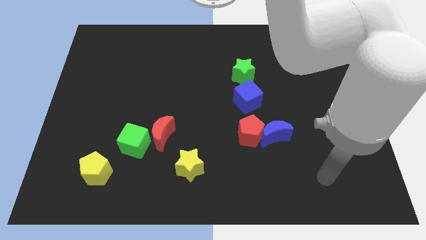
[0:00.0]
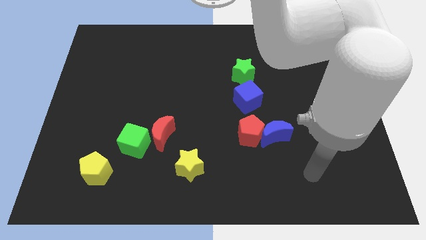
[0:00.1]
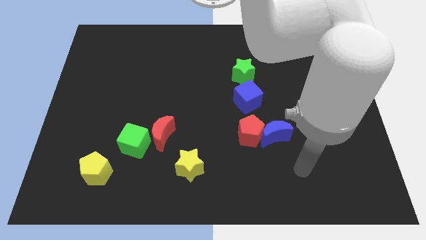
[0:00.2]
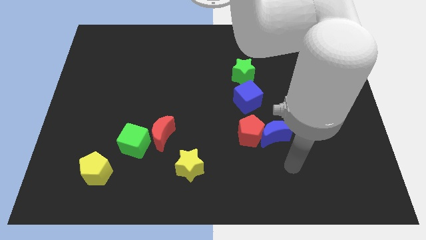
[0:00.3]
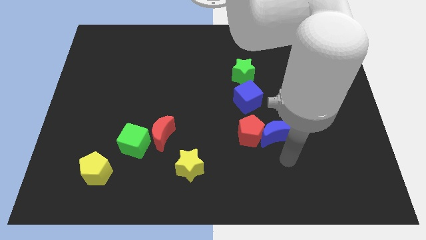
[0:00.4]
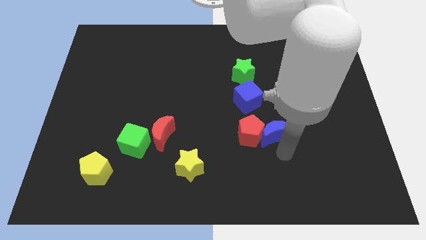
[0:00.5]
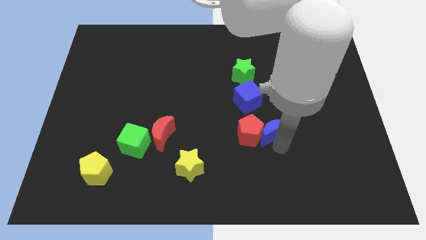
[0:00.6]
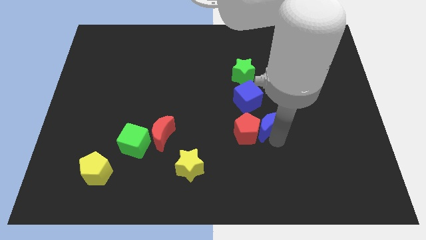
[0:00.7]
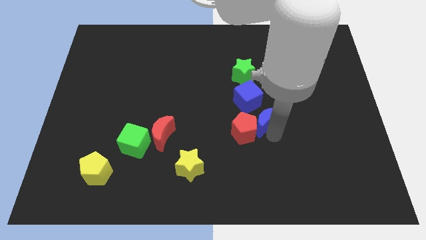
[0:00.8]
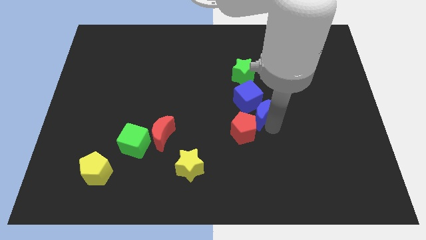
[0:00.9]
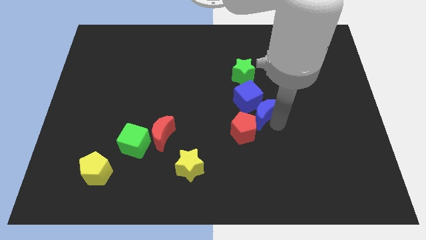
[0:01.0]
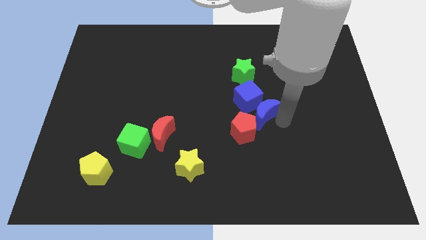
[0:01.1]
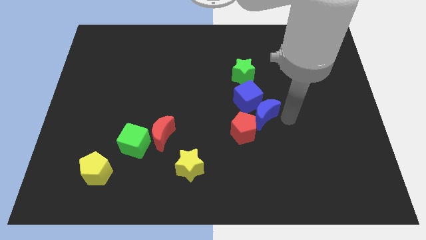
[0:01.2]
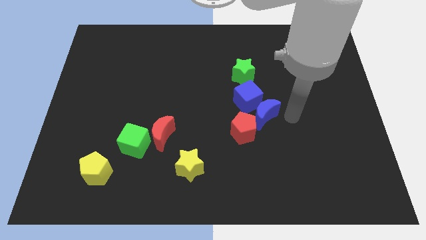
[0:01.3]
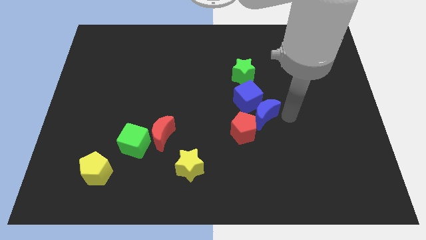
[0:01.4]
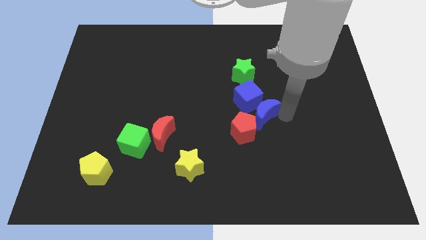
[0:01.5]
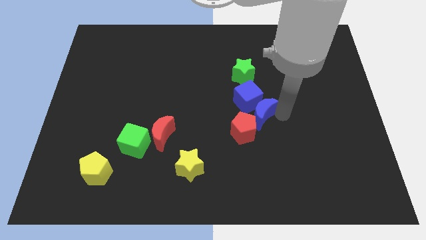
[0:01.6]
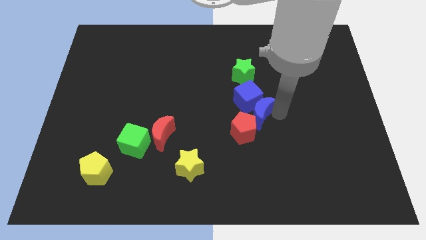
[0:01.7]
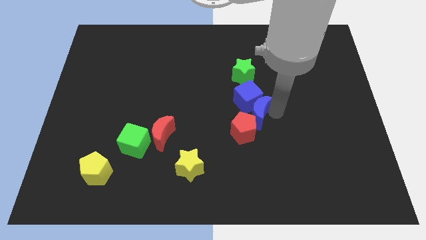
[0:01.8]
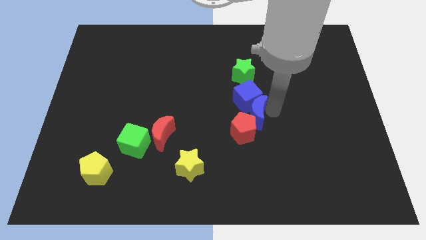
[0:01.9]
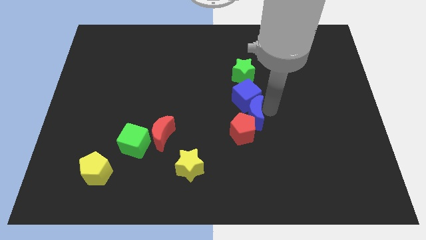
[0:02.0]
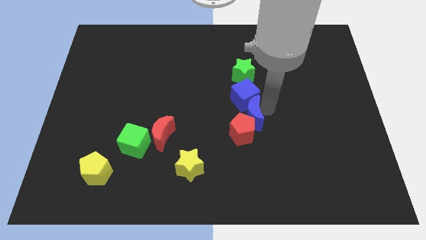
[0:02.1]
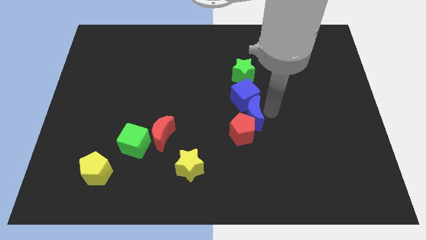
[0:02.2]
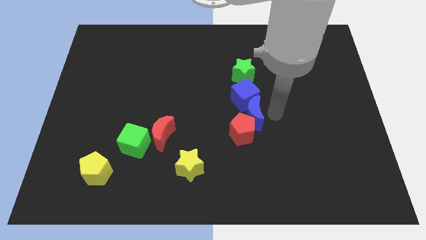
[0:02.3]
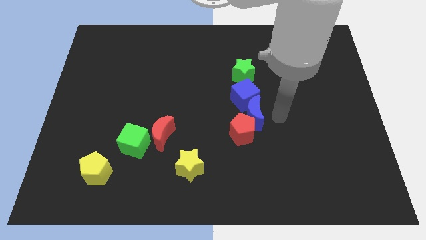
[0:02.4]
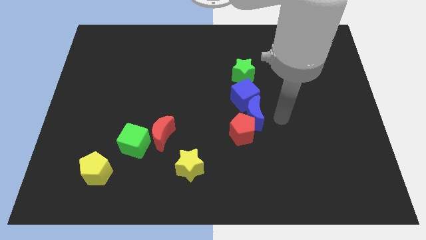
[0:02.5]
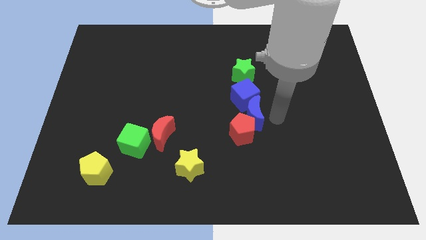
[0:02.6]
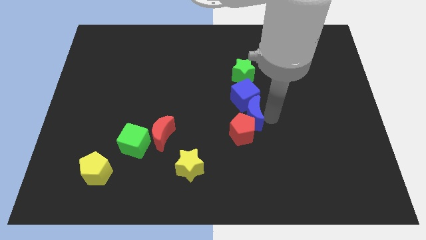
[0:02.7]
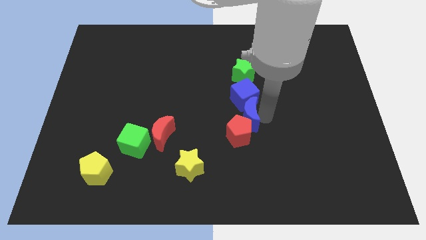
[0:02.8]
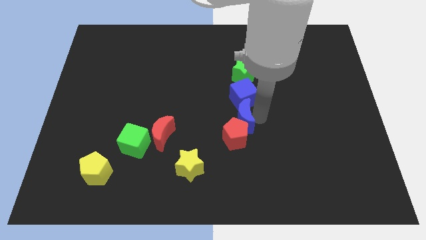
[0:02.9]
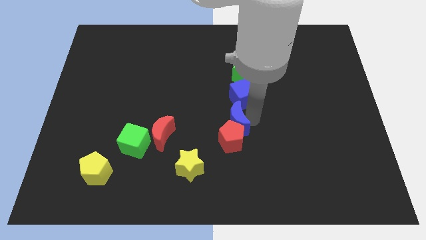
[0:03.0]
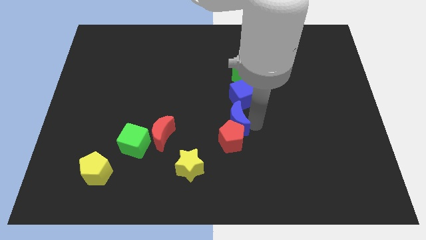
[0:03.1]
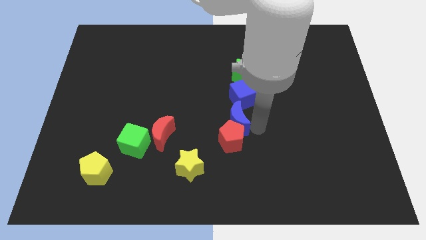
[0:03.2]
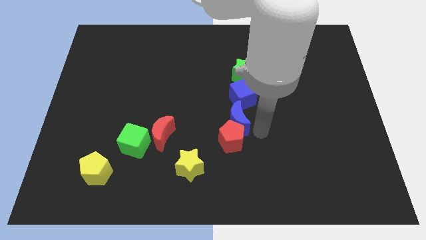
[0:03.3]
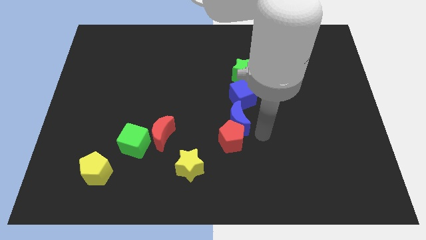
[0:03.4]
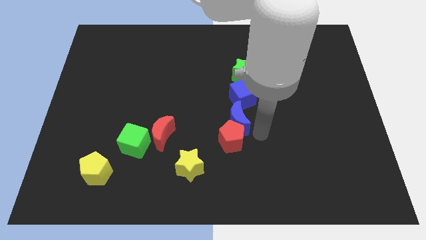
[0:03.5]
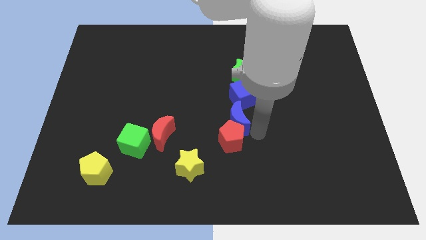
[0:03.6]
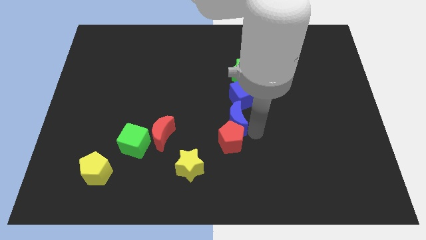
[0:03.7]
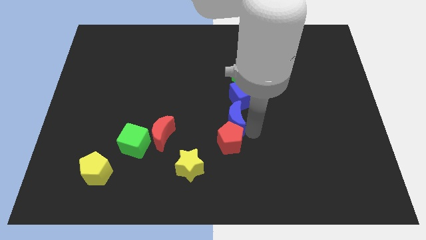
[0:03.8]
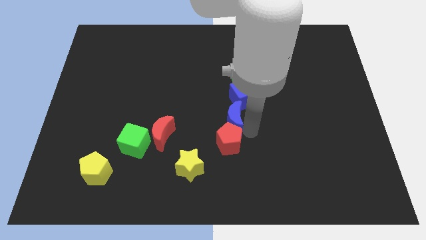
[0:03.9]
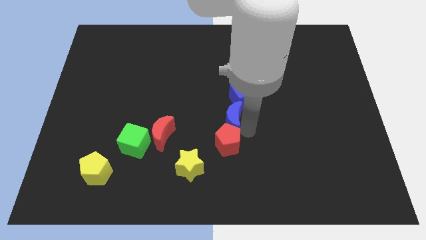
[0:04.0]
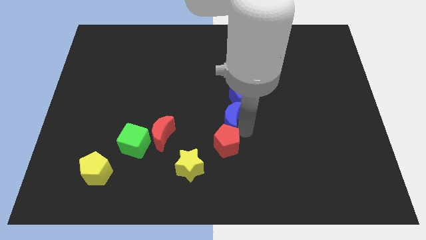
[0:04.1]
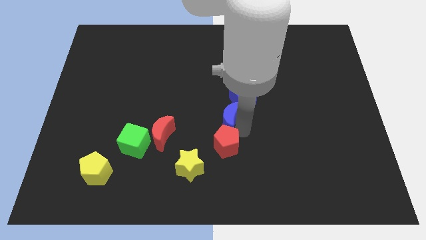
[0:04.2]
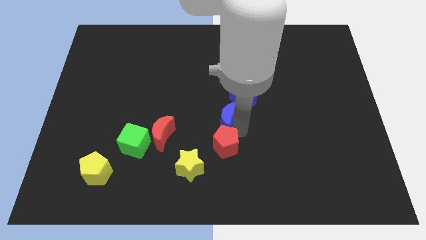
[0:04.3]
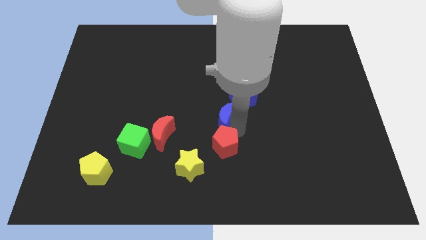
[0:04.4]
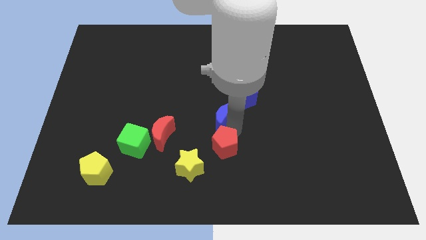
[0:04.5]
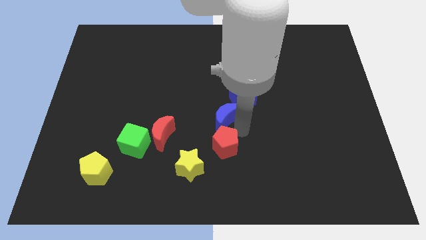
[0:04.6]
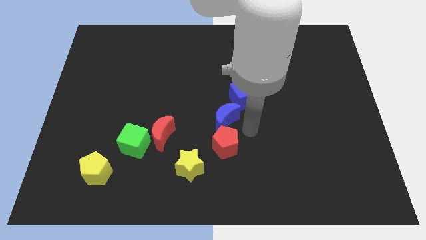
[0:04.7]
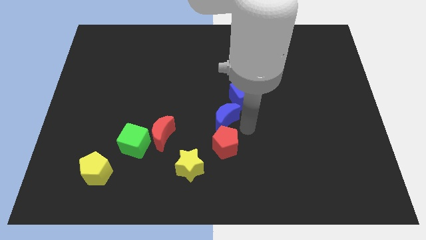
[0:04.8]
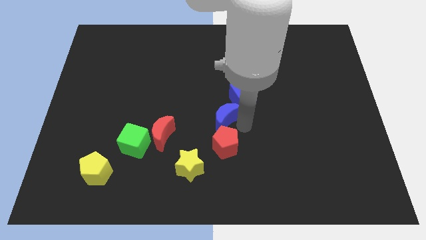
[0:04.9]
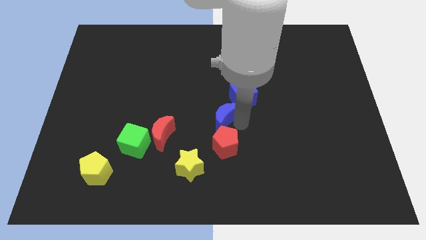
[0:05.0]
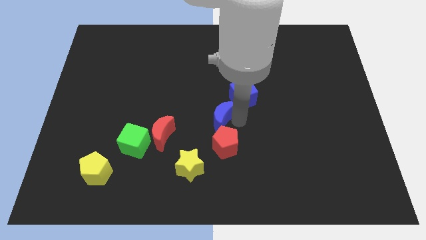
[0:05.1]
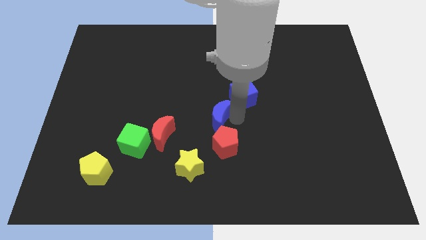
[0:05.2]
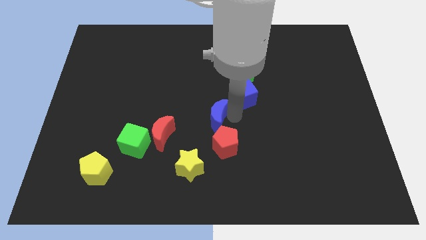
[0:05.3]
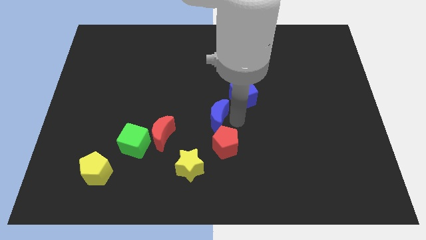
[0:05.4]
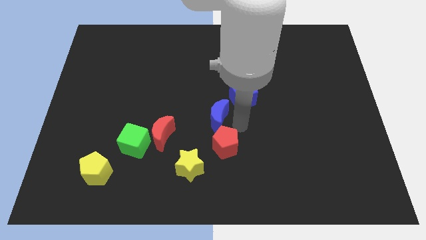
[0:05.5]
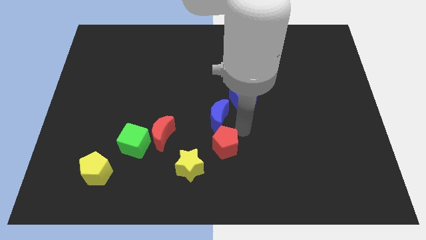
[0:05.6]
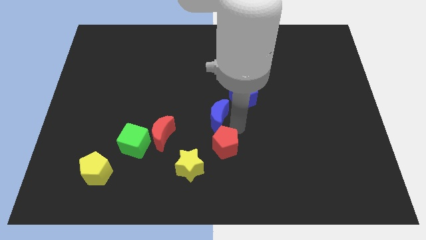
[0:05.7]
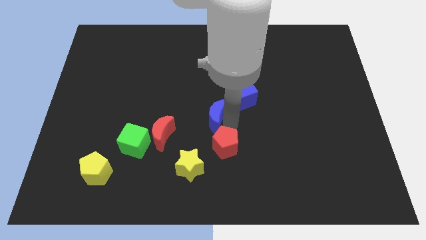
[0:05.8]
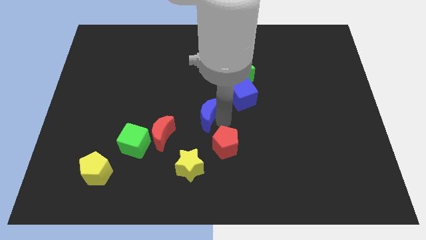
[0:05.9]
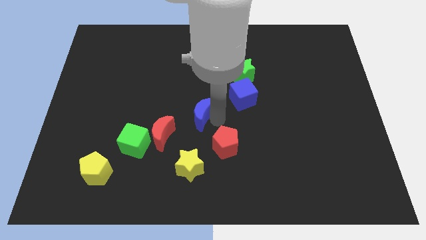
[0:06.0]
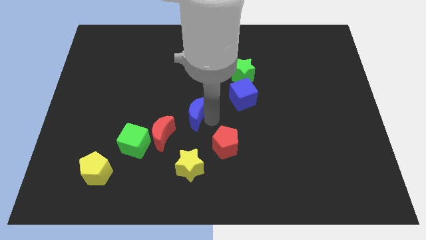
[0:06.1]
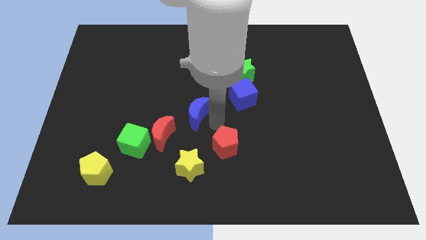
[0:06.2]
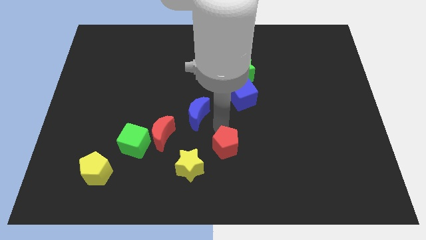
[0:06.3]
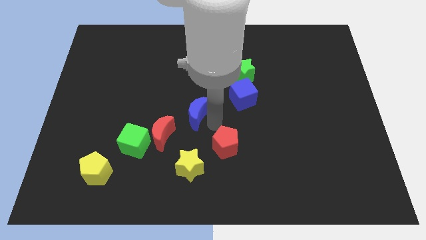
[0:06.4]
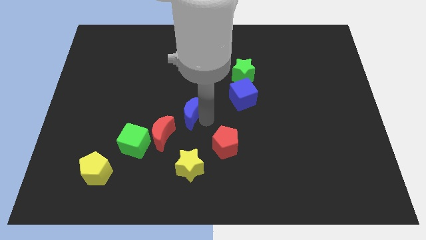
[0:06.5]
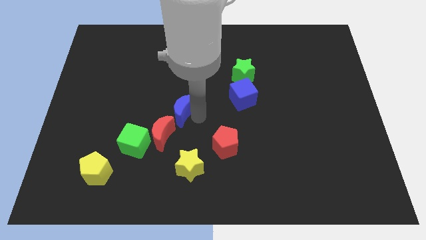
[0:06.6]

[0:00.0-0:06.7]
put the blue moon to the top of the red moon

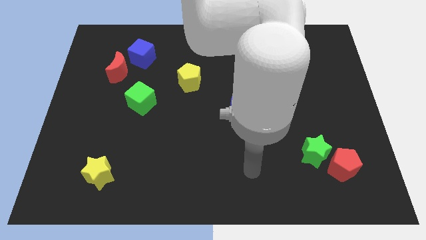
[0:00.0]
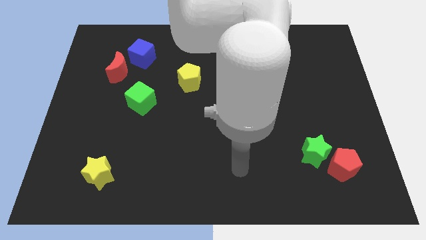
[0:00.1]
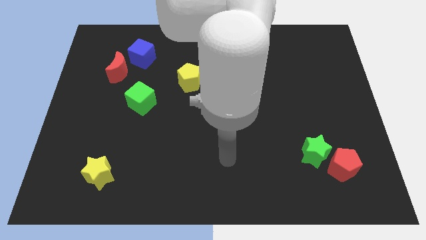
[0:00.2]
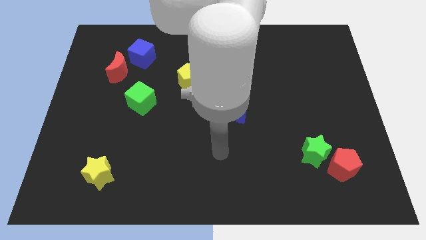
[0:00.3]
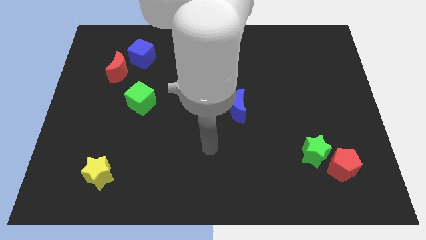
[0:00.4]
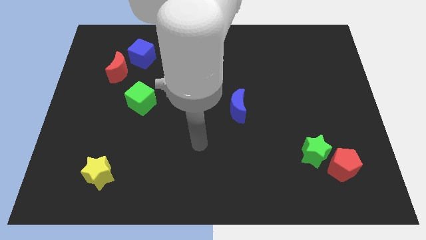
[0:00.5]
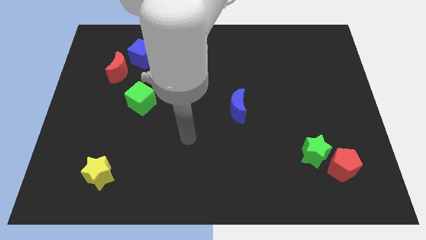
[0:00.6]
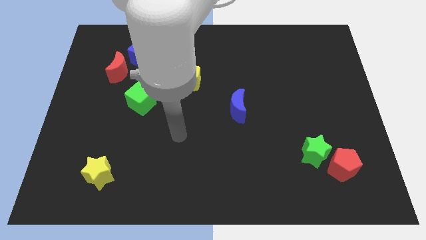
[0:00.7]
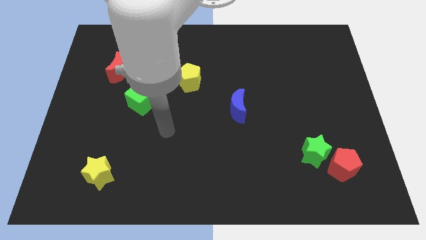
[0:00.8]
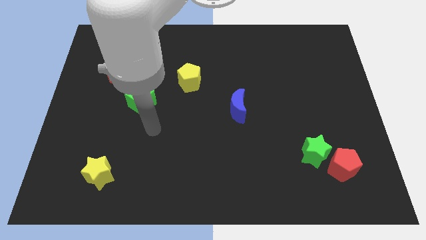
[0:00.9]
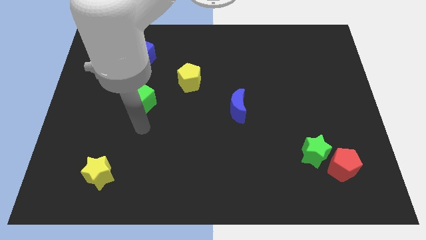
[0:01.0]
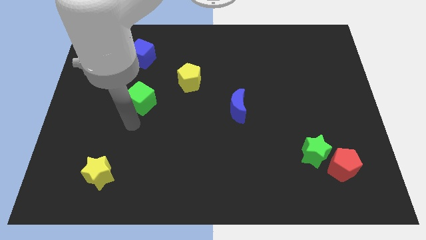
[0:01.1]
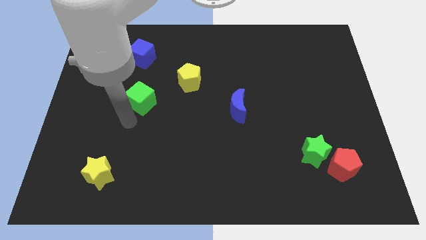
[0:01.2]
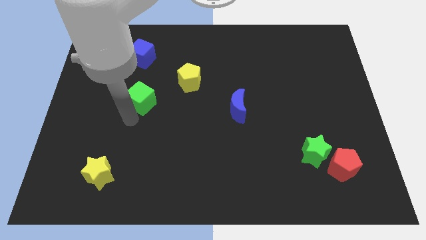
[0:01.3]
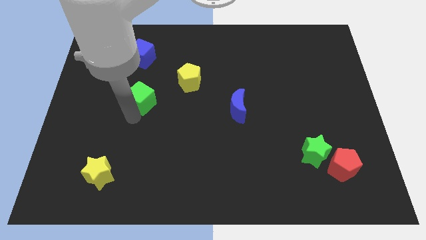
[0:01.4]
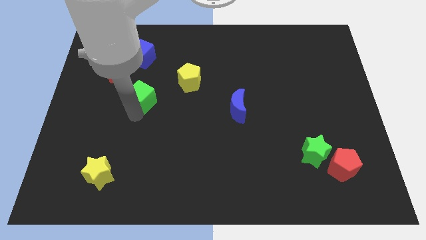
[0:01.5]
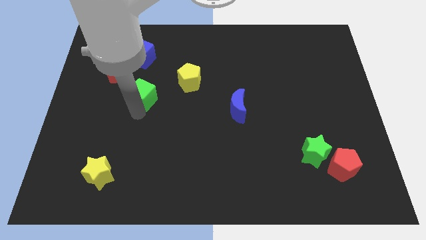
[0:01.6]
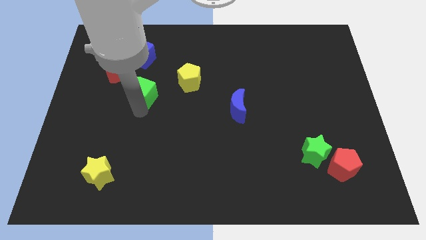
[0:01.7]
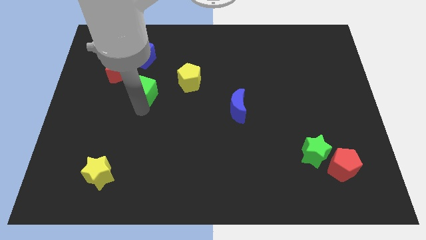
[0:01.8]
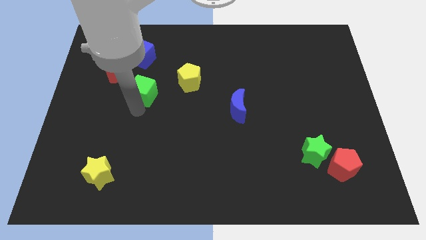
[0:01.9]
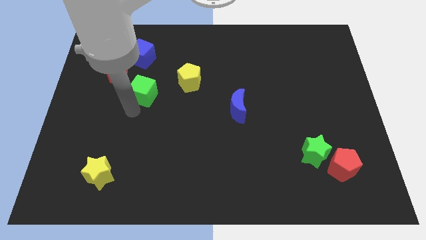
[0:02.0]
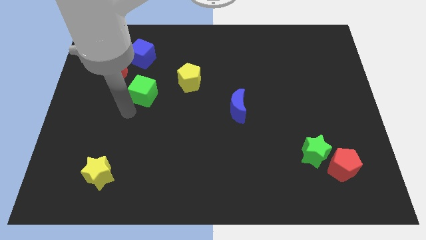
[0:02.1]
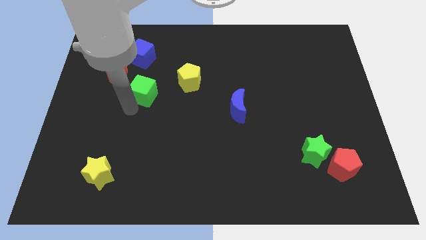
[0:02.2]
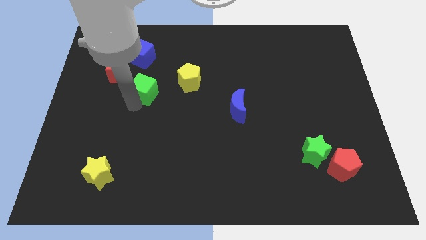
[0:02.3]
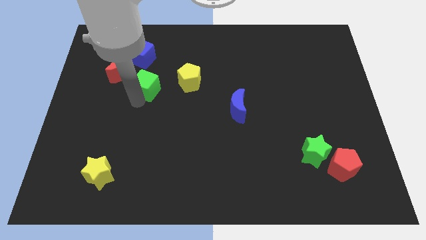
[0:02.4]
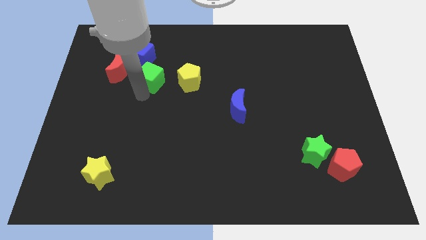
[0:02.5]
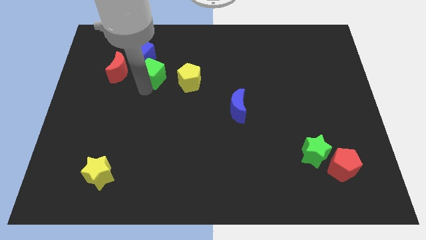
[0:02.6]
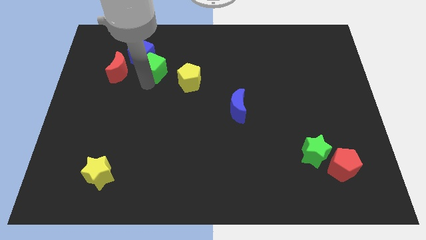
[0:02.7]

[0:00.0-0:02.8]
put the green cube to the top left of the yellow pentagon
